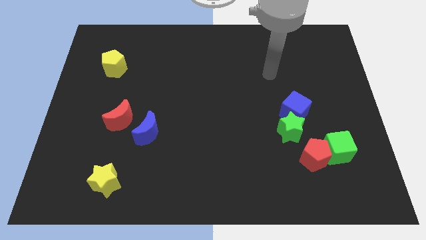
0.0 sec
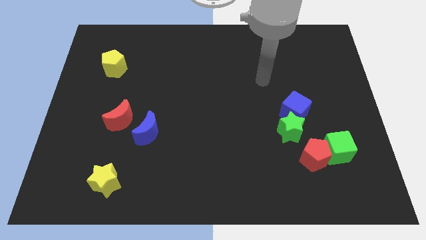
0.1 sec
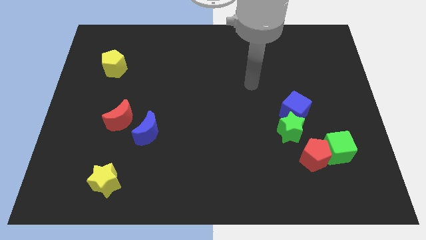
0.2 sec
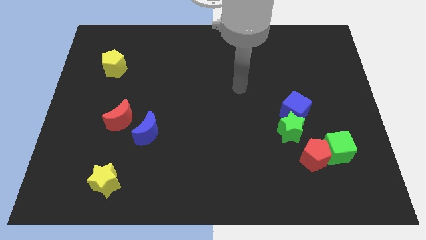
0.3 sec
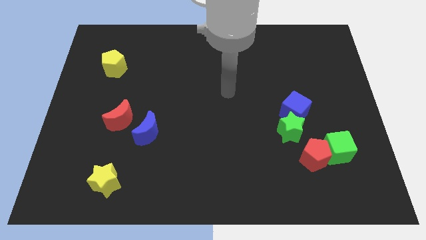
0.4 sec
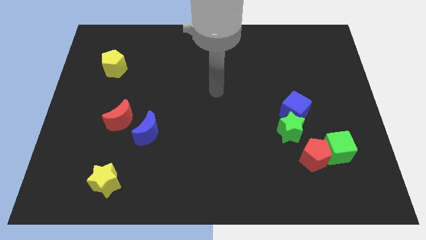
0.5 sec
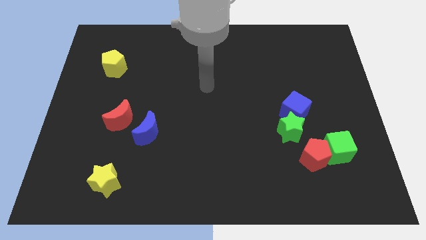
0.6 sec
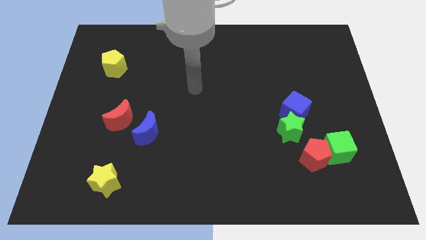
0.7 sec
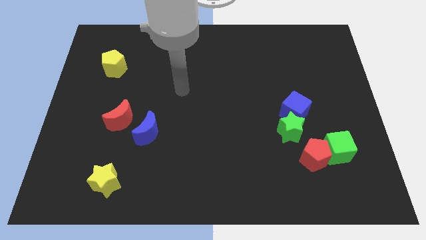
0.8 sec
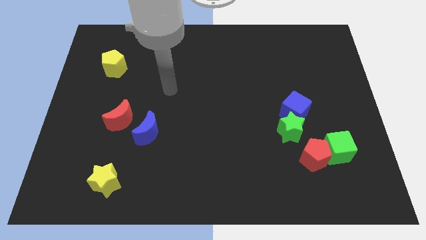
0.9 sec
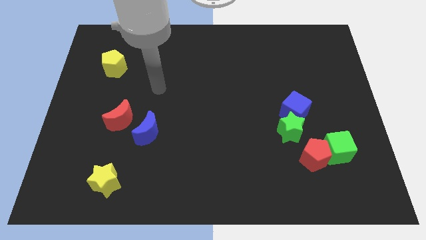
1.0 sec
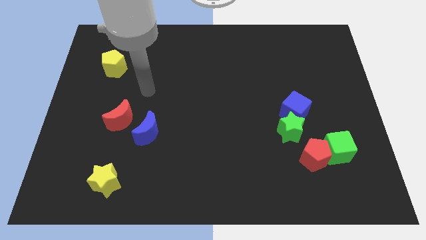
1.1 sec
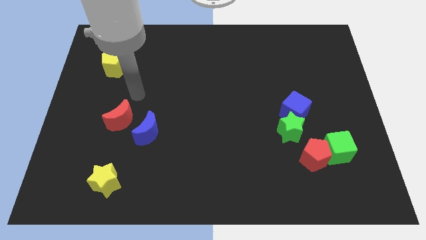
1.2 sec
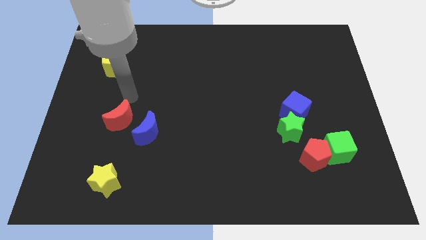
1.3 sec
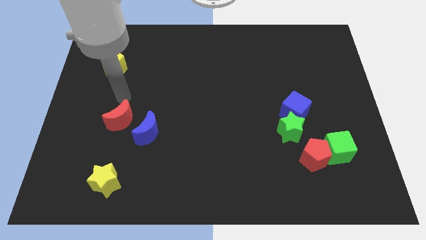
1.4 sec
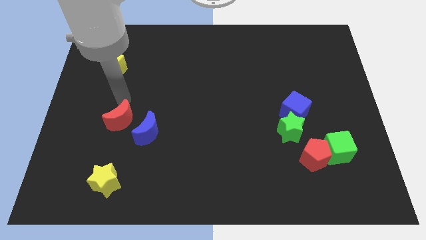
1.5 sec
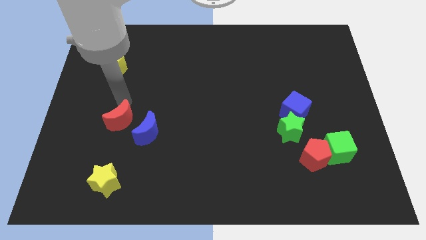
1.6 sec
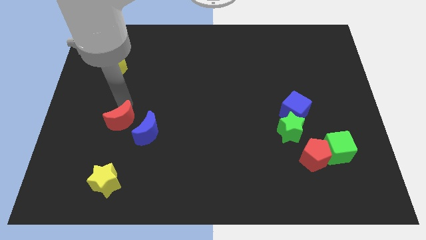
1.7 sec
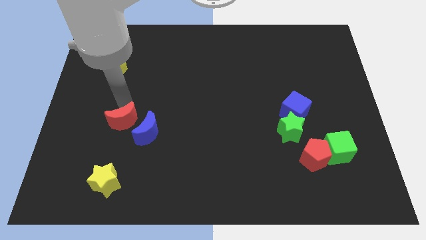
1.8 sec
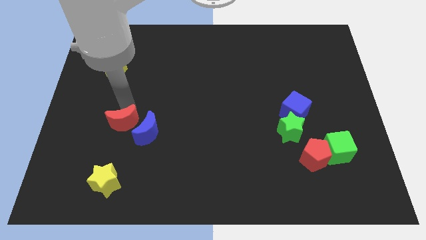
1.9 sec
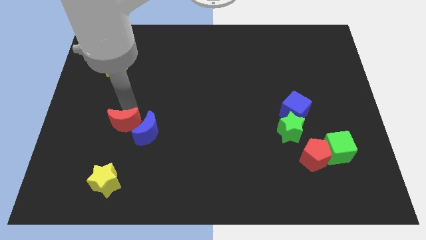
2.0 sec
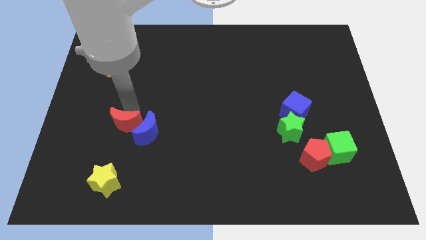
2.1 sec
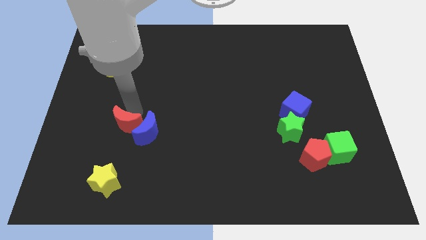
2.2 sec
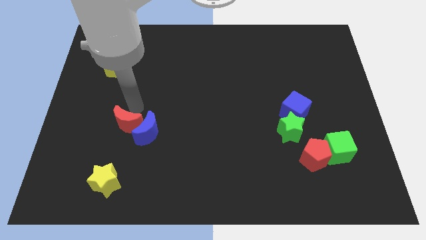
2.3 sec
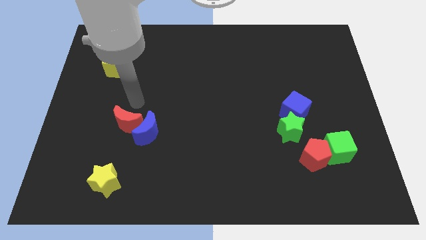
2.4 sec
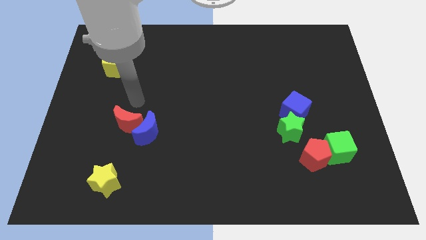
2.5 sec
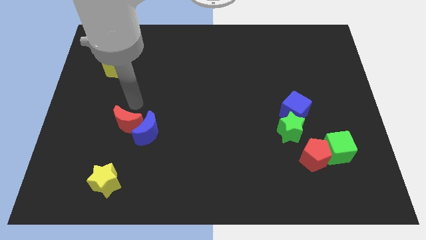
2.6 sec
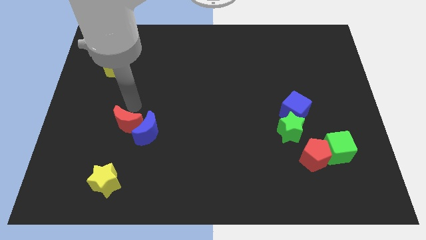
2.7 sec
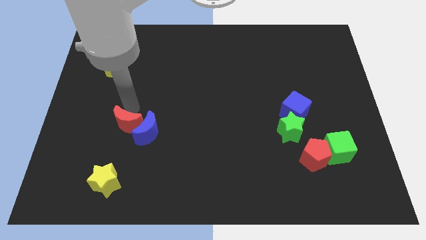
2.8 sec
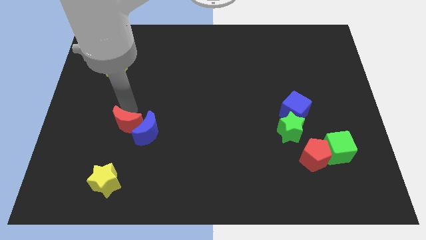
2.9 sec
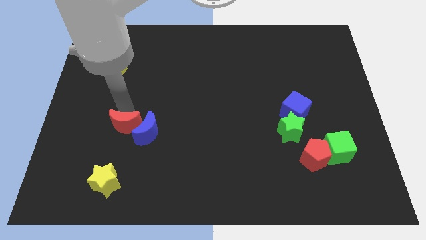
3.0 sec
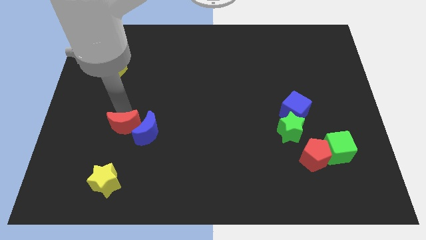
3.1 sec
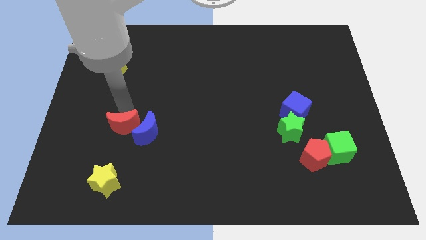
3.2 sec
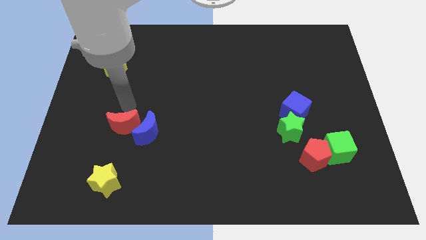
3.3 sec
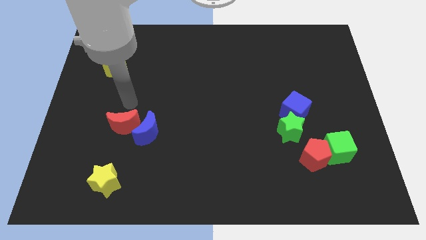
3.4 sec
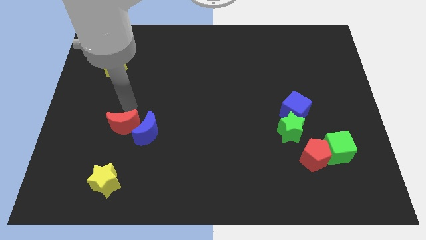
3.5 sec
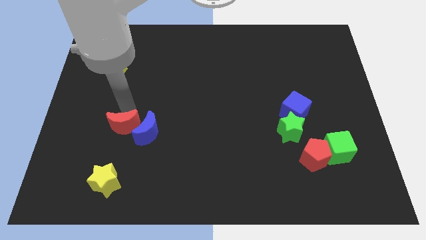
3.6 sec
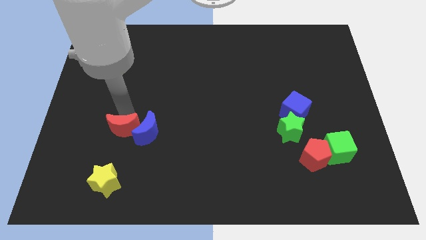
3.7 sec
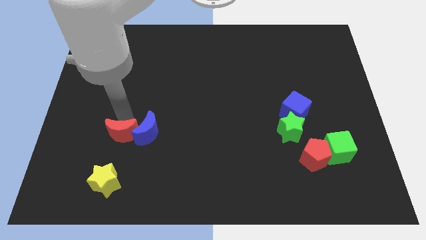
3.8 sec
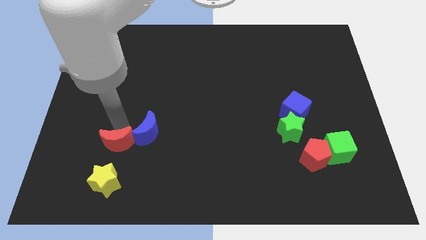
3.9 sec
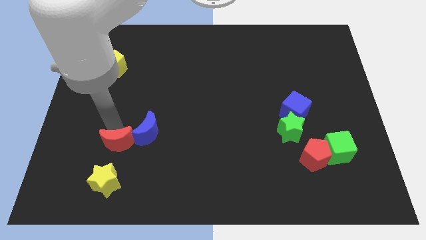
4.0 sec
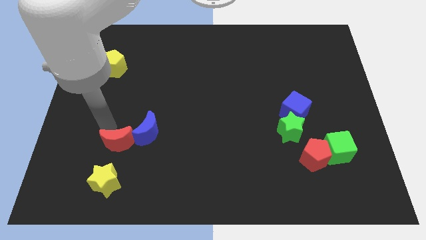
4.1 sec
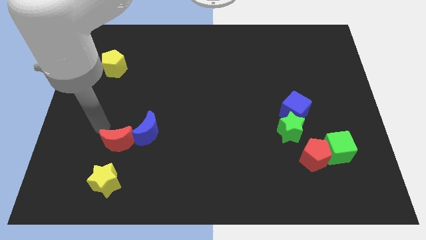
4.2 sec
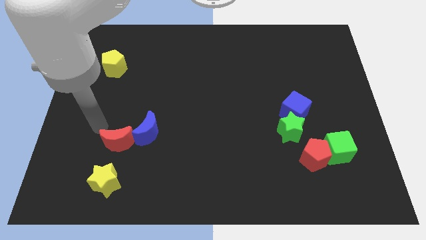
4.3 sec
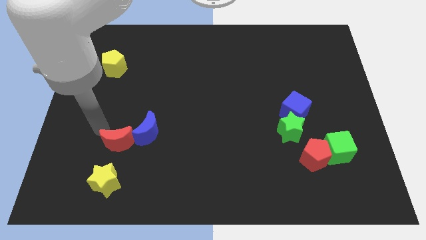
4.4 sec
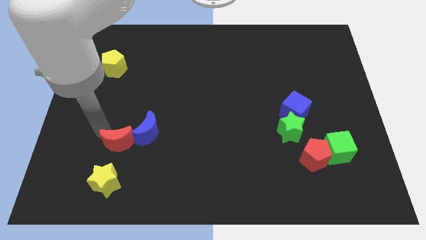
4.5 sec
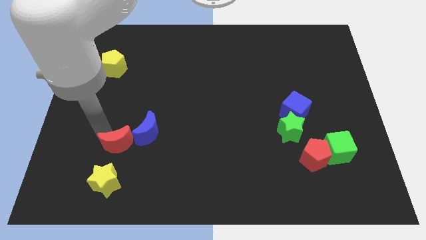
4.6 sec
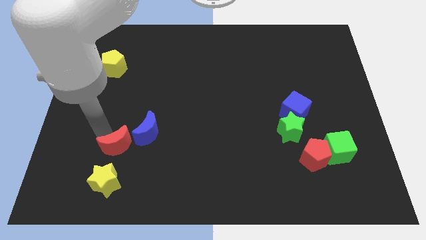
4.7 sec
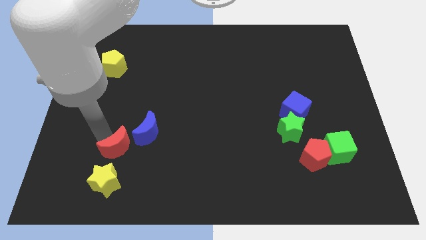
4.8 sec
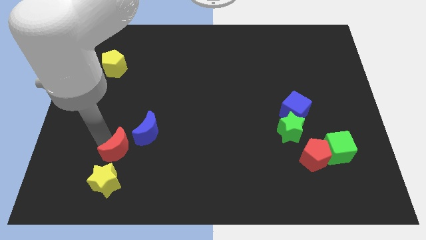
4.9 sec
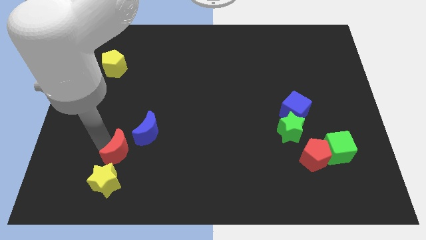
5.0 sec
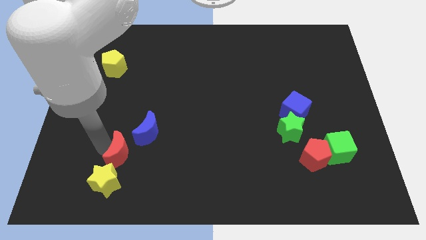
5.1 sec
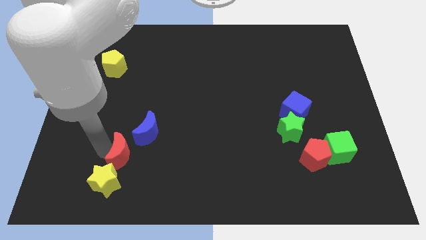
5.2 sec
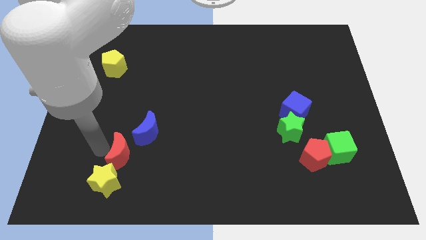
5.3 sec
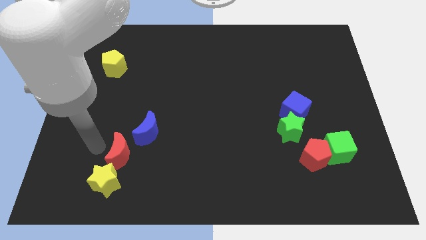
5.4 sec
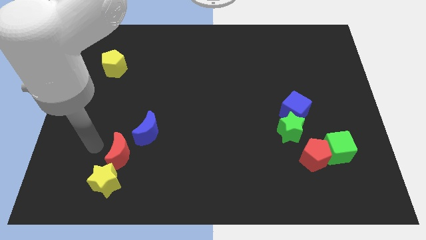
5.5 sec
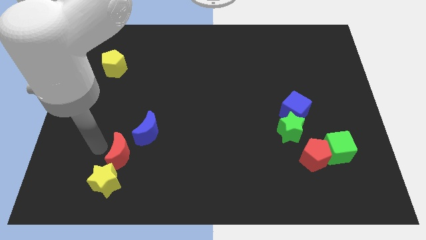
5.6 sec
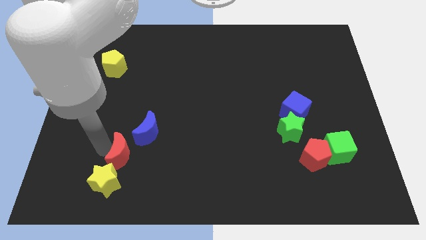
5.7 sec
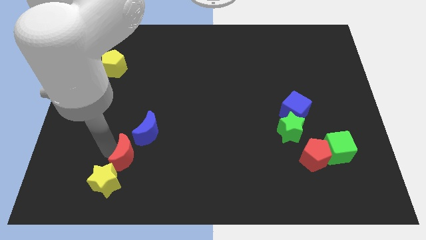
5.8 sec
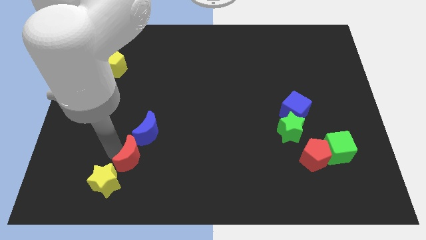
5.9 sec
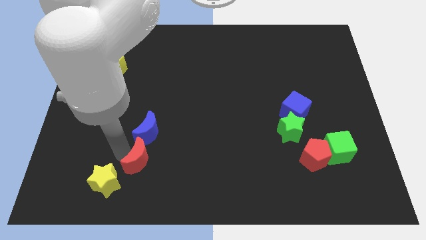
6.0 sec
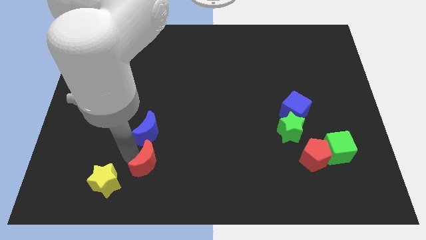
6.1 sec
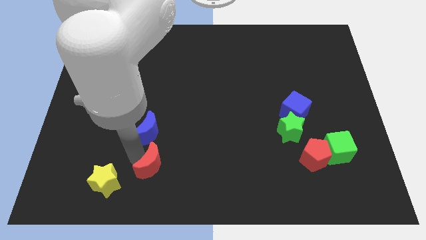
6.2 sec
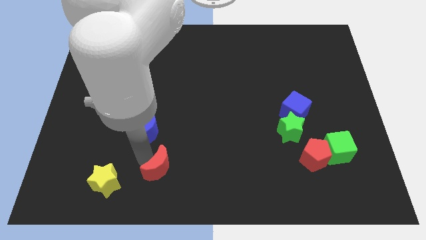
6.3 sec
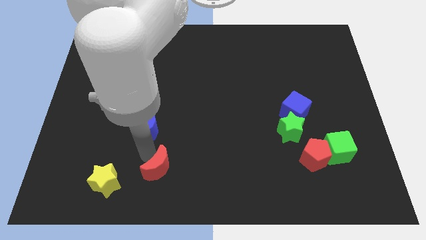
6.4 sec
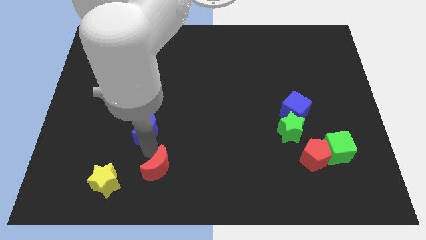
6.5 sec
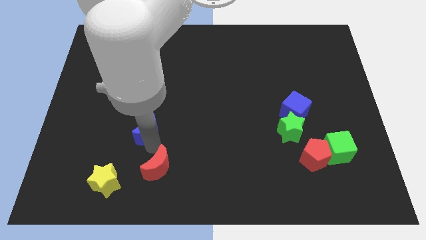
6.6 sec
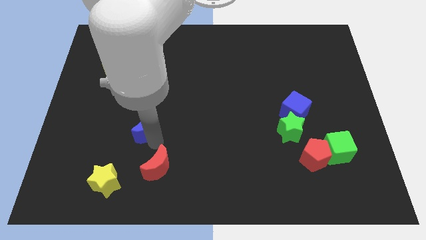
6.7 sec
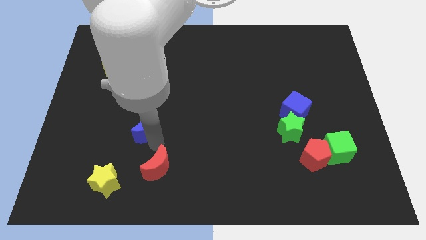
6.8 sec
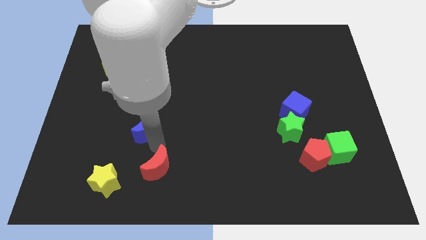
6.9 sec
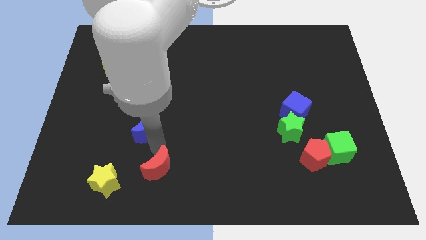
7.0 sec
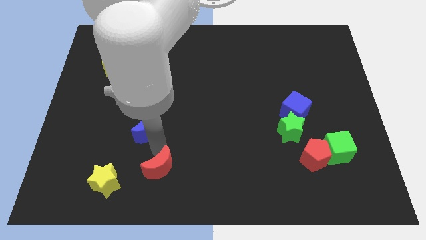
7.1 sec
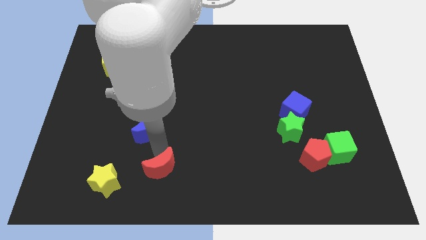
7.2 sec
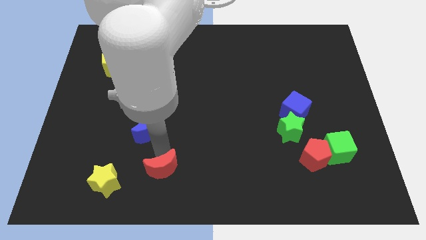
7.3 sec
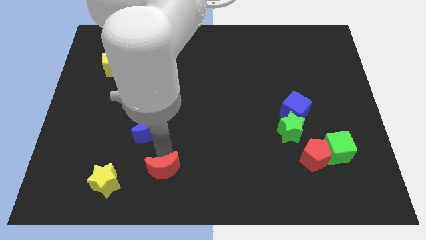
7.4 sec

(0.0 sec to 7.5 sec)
slide the red moon to the bottom
